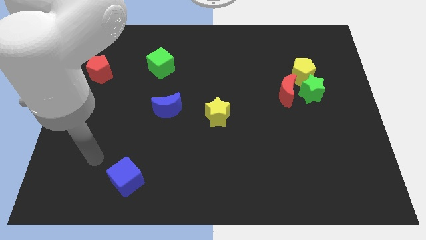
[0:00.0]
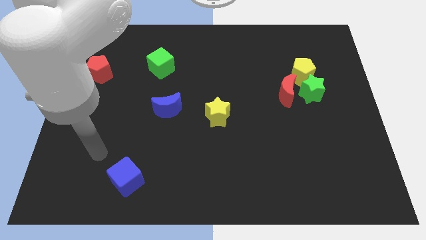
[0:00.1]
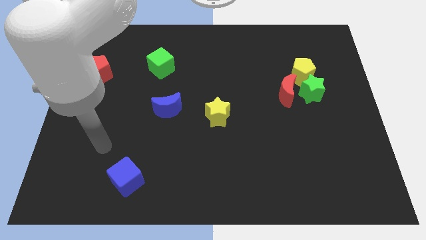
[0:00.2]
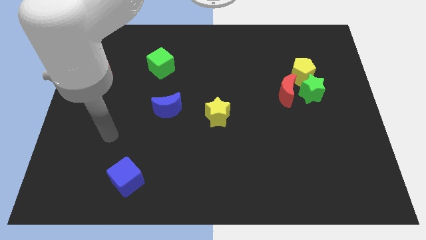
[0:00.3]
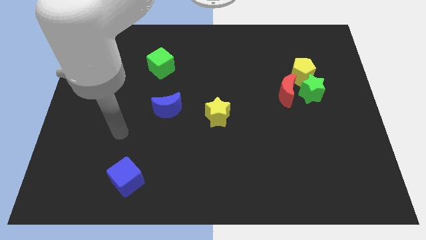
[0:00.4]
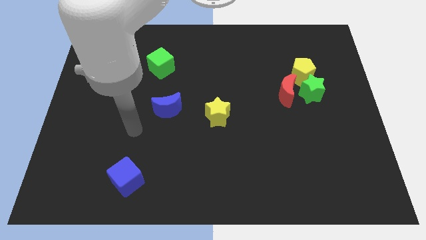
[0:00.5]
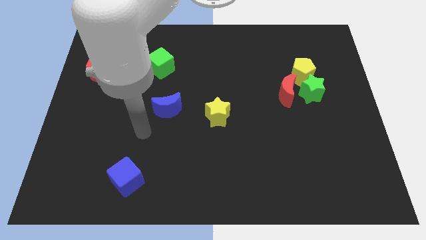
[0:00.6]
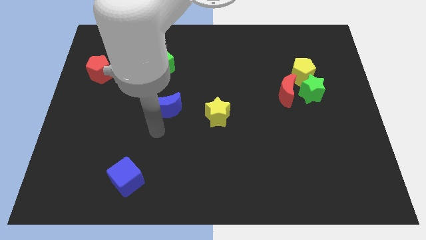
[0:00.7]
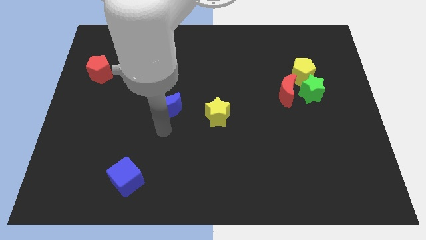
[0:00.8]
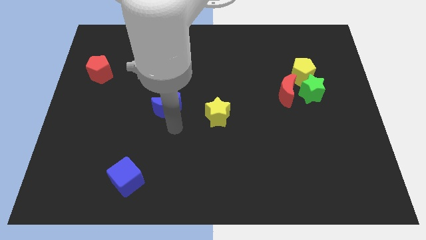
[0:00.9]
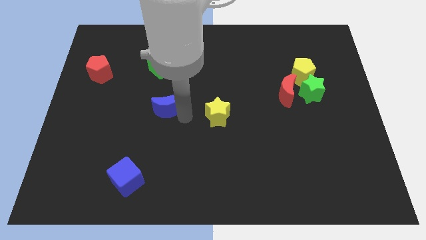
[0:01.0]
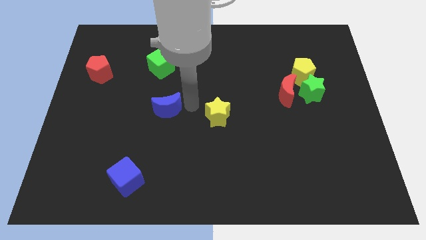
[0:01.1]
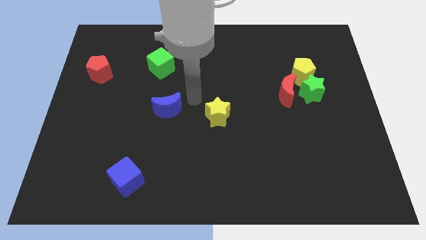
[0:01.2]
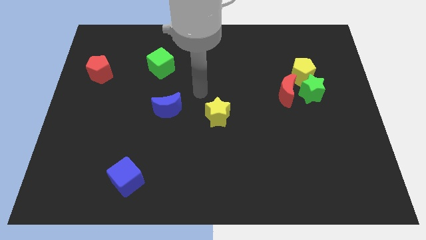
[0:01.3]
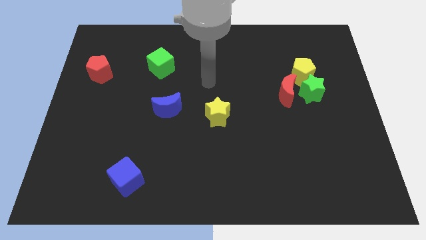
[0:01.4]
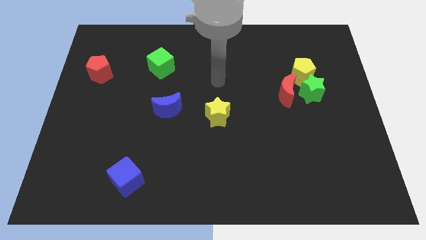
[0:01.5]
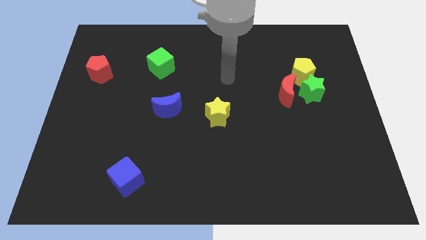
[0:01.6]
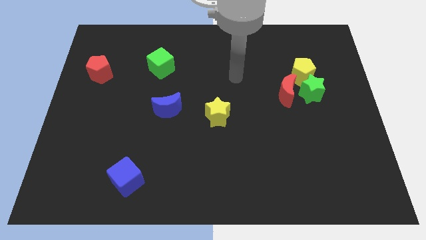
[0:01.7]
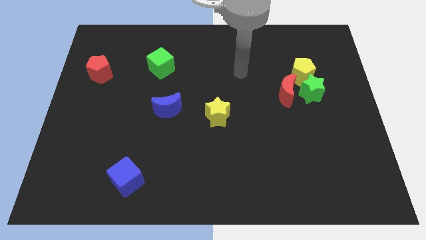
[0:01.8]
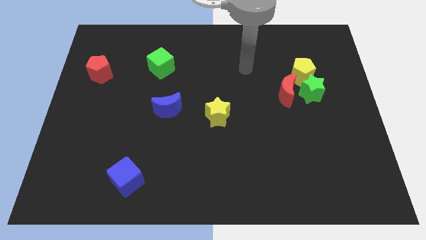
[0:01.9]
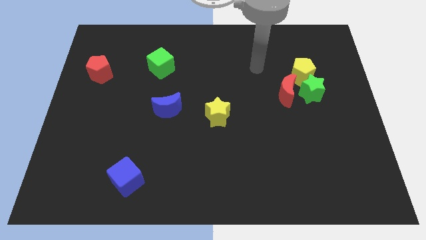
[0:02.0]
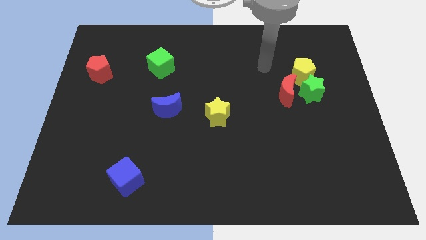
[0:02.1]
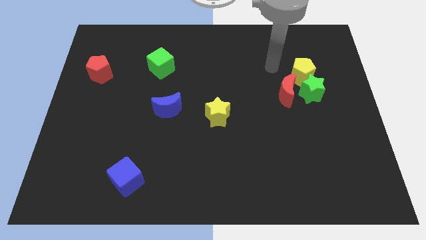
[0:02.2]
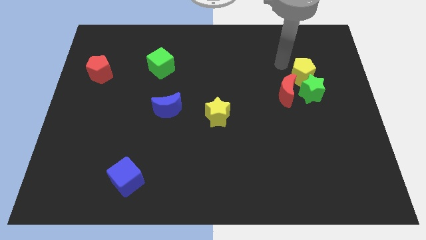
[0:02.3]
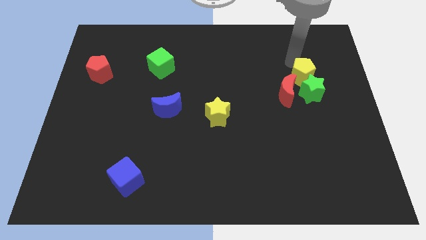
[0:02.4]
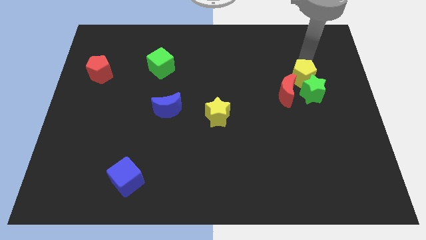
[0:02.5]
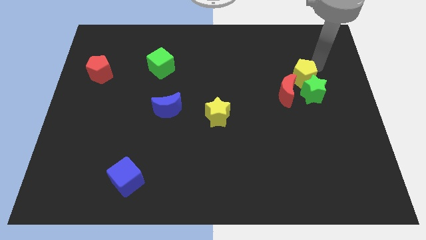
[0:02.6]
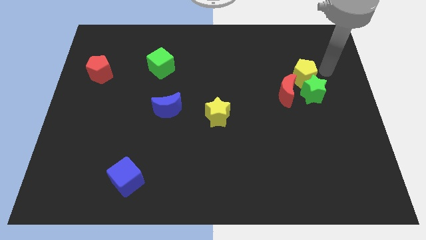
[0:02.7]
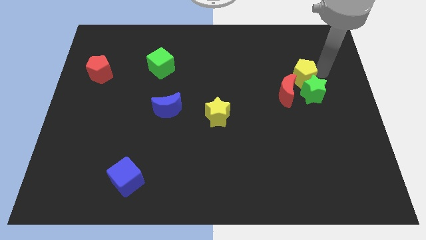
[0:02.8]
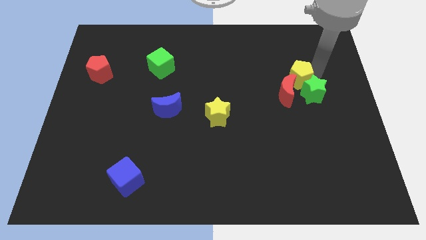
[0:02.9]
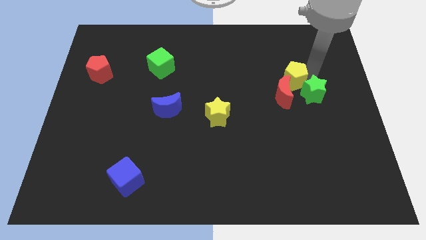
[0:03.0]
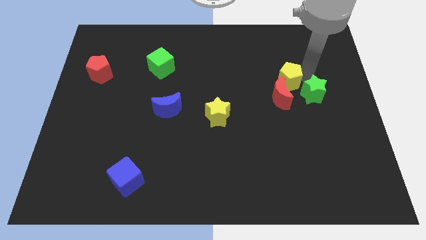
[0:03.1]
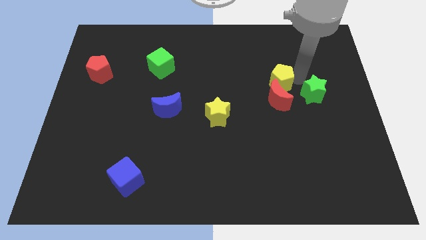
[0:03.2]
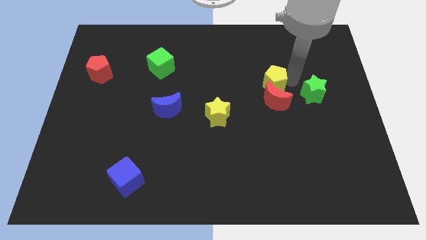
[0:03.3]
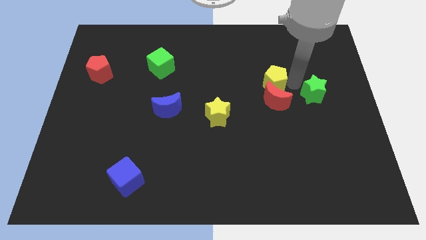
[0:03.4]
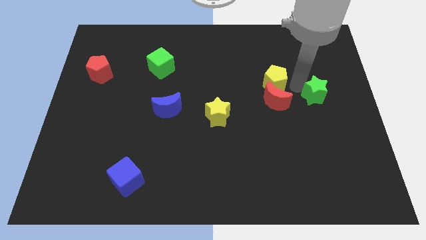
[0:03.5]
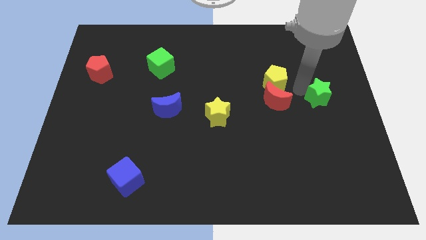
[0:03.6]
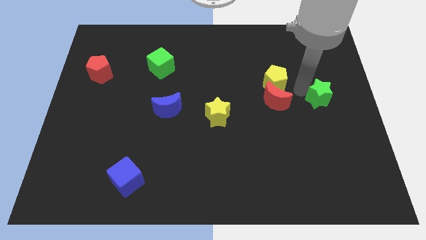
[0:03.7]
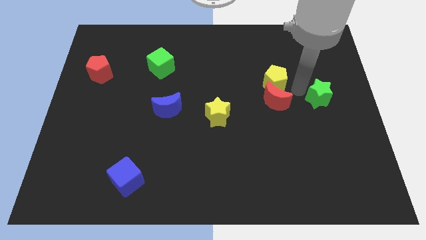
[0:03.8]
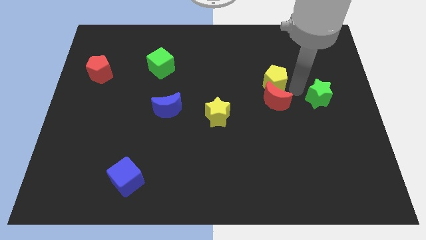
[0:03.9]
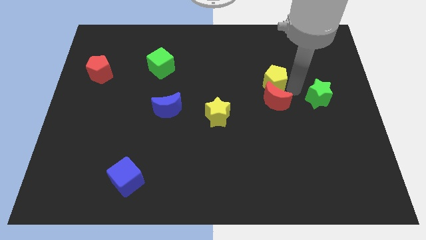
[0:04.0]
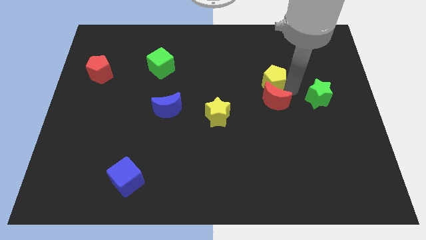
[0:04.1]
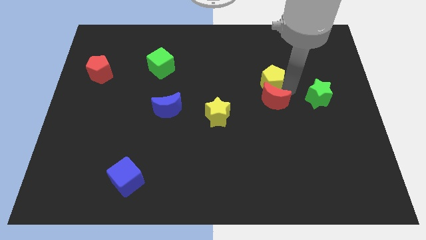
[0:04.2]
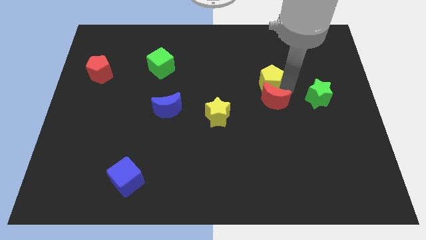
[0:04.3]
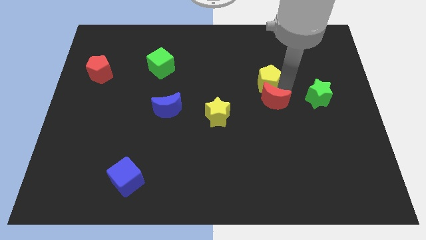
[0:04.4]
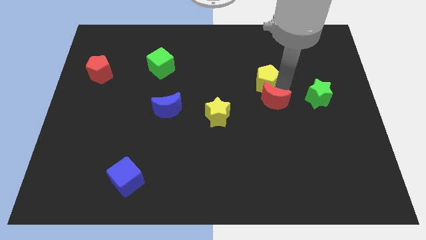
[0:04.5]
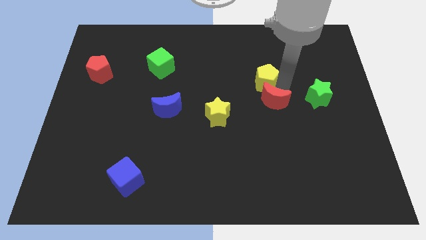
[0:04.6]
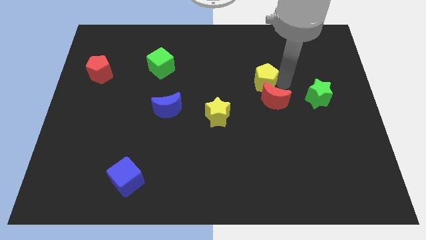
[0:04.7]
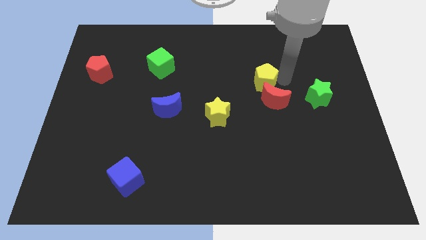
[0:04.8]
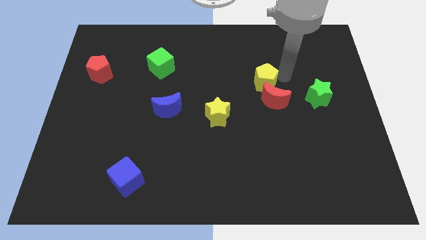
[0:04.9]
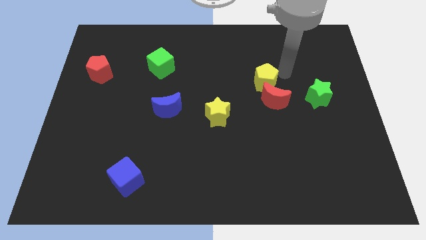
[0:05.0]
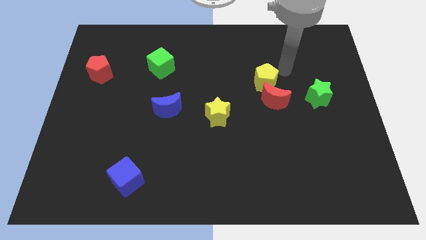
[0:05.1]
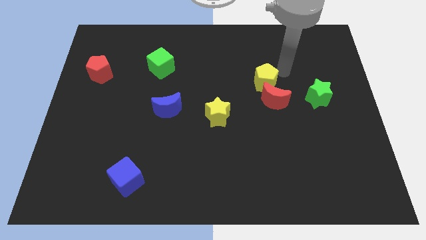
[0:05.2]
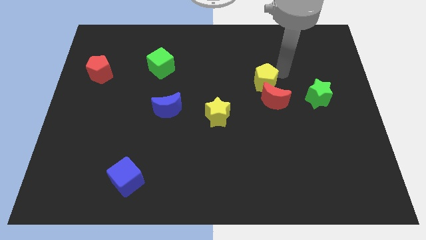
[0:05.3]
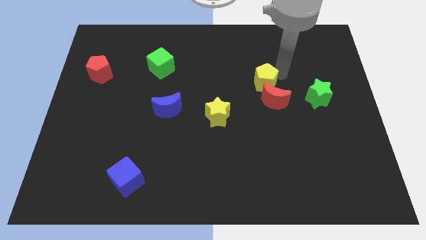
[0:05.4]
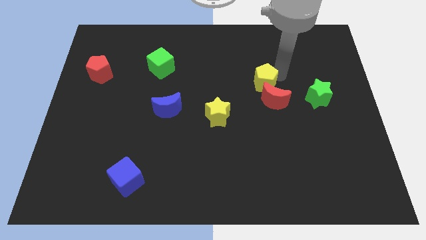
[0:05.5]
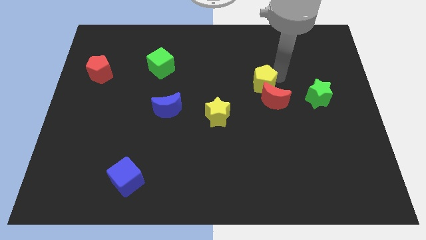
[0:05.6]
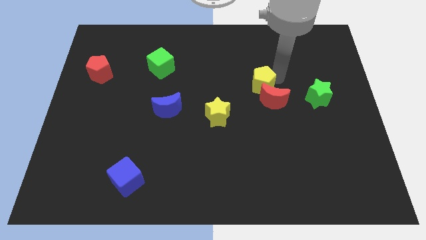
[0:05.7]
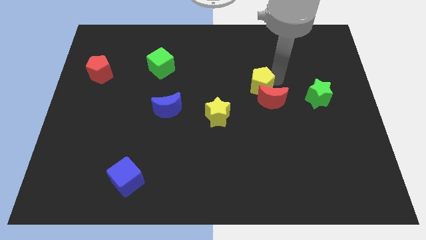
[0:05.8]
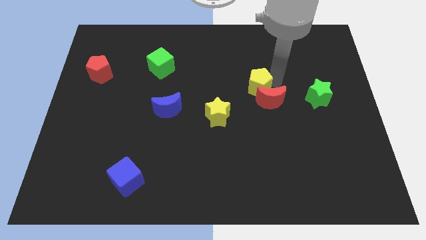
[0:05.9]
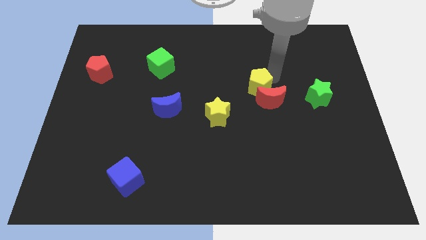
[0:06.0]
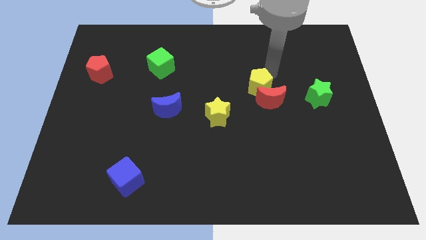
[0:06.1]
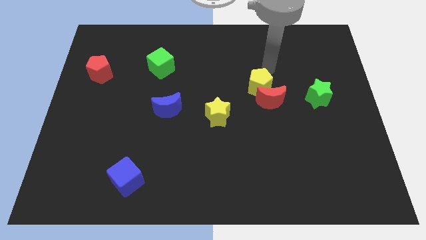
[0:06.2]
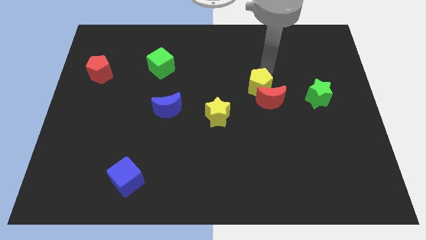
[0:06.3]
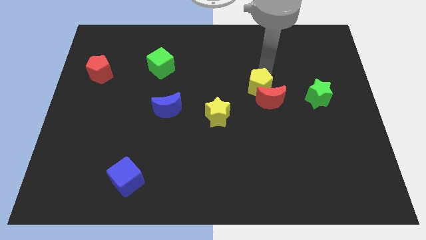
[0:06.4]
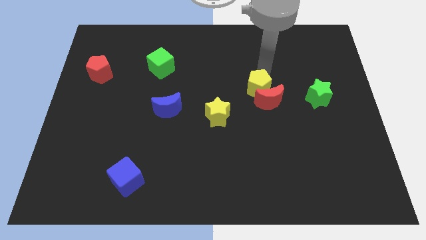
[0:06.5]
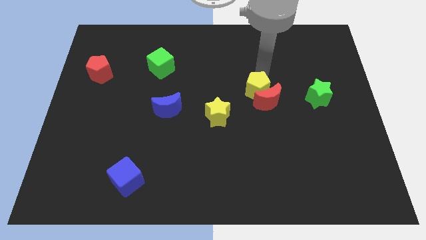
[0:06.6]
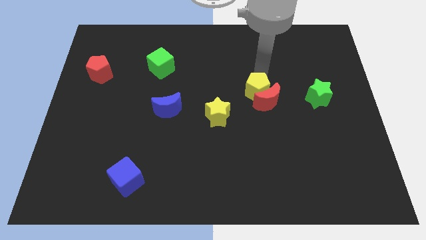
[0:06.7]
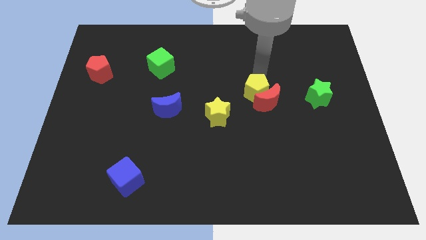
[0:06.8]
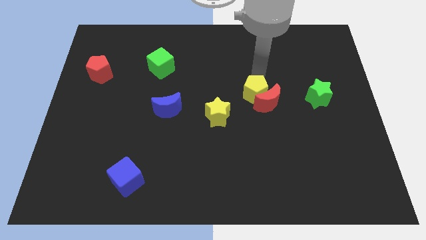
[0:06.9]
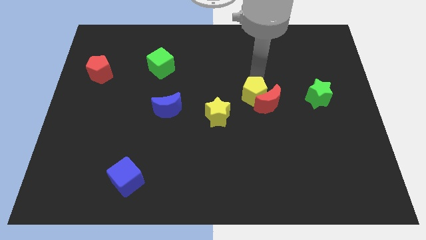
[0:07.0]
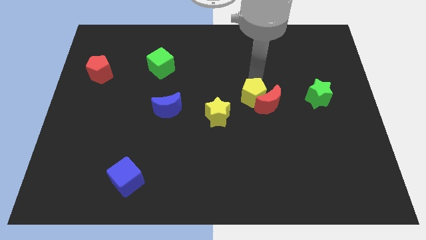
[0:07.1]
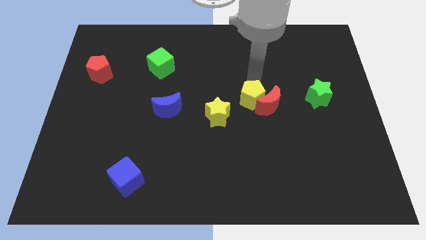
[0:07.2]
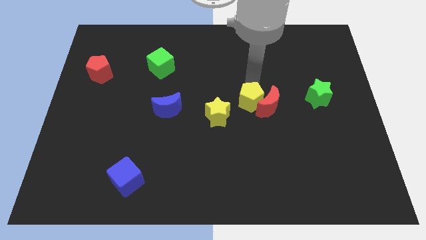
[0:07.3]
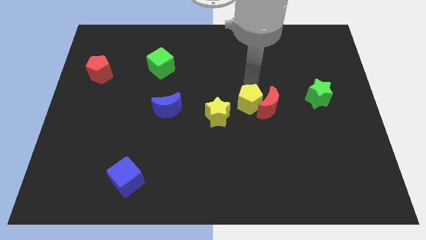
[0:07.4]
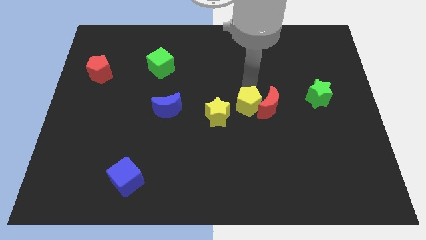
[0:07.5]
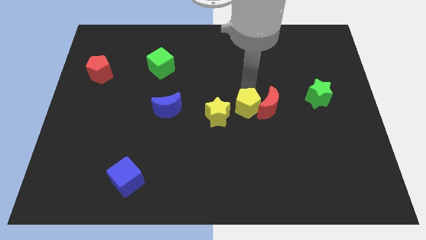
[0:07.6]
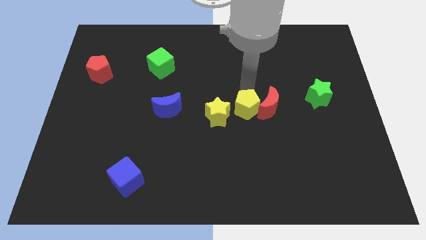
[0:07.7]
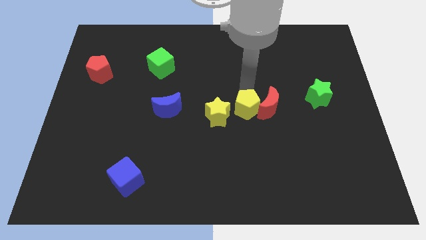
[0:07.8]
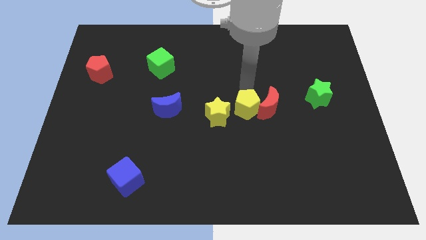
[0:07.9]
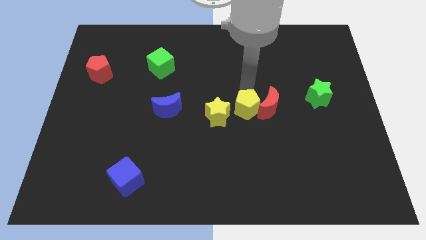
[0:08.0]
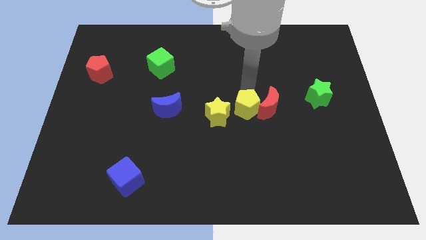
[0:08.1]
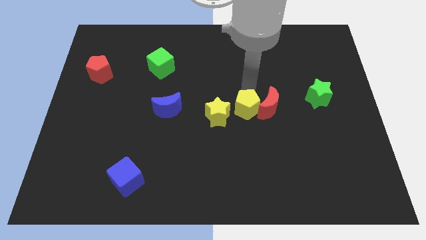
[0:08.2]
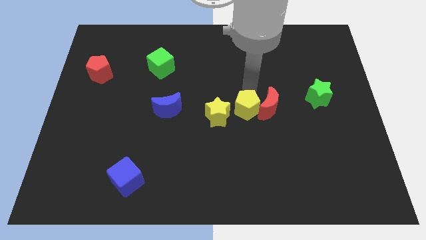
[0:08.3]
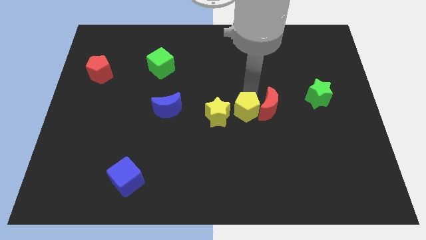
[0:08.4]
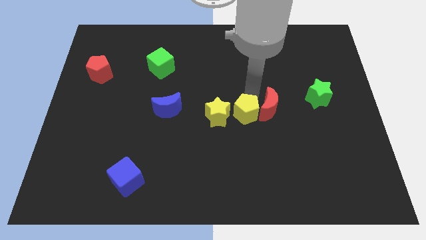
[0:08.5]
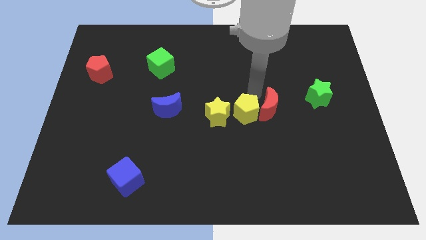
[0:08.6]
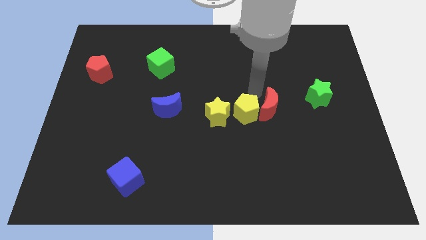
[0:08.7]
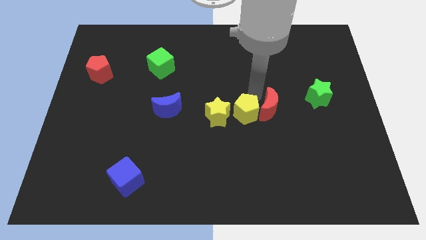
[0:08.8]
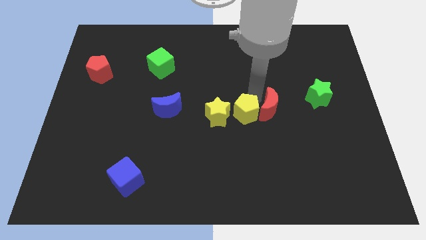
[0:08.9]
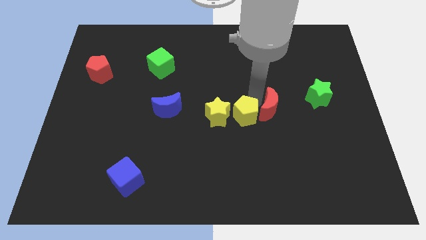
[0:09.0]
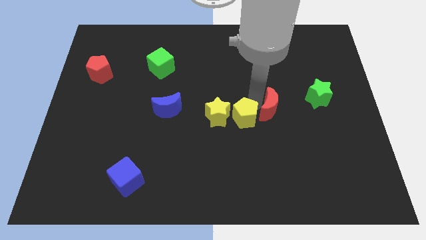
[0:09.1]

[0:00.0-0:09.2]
push the yellow pentagon diagonally down and left
